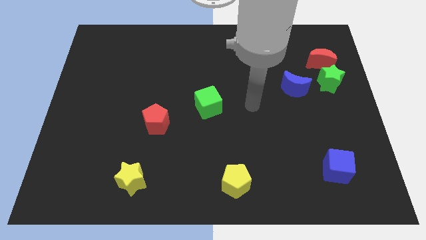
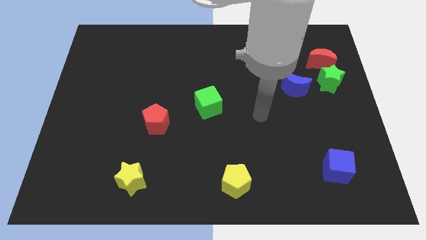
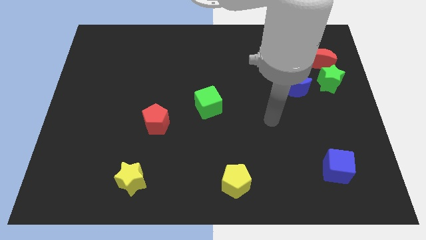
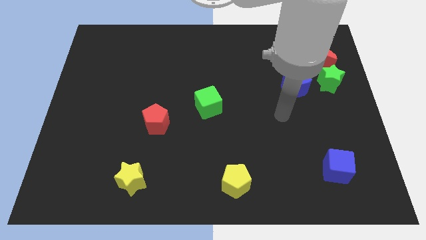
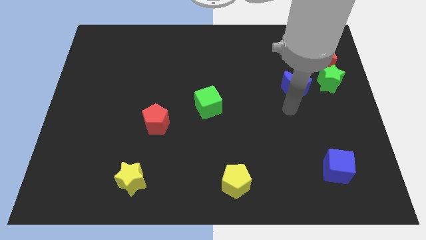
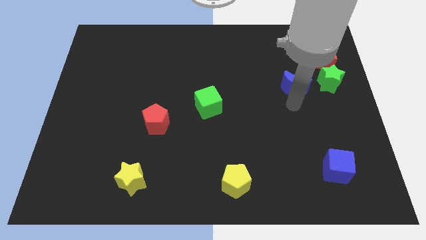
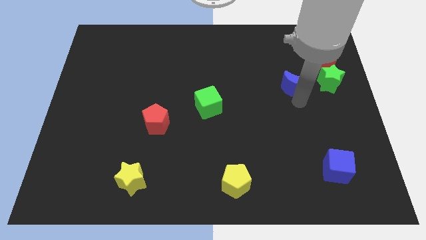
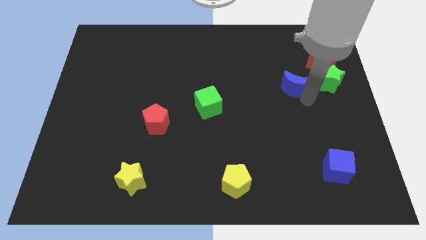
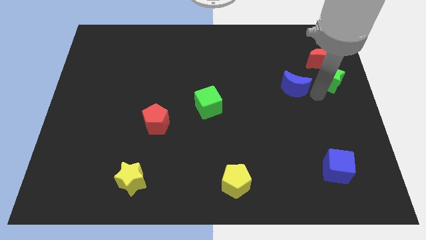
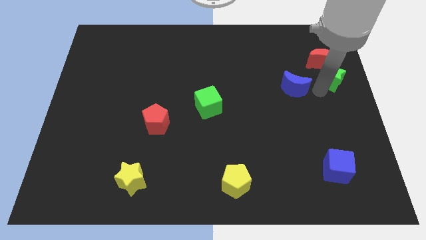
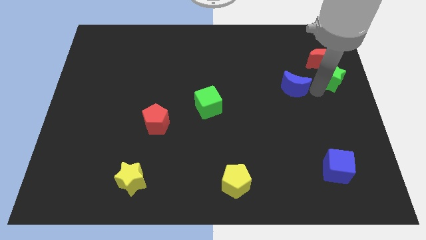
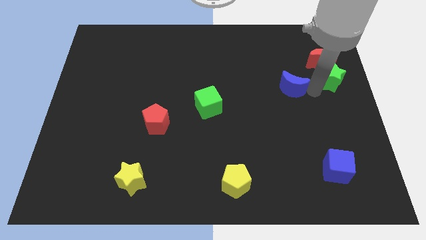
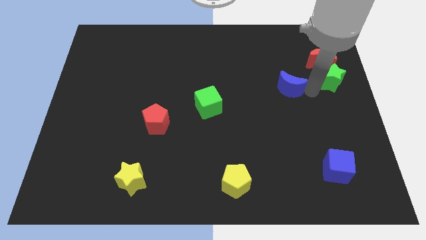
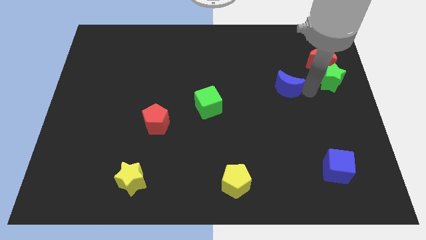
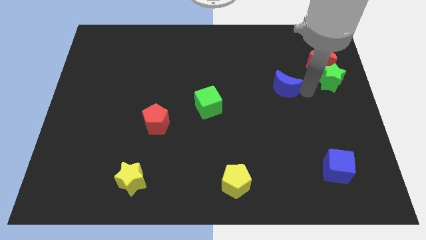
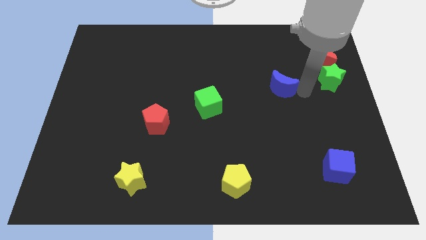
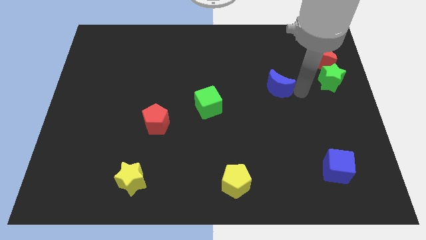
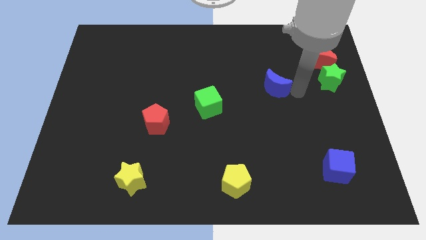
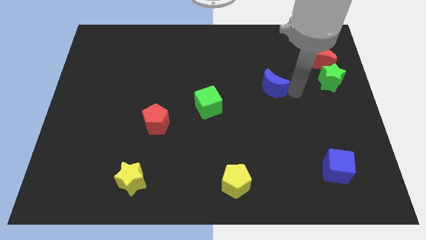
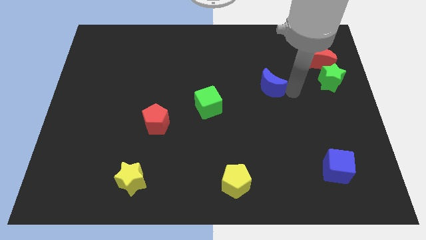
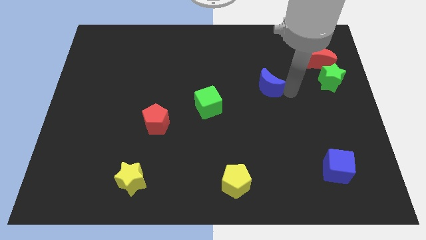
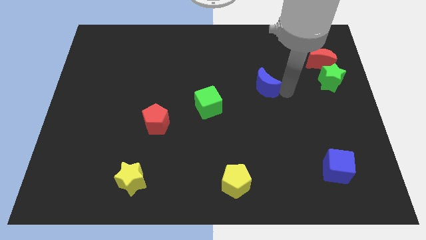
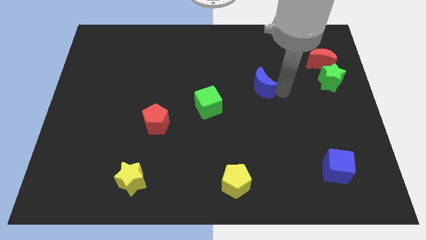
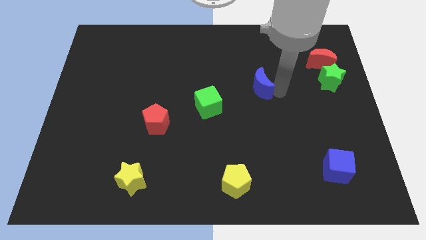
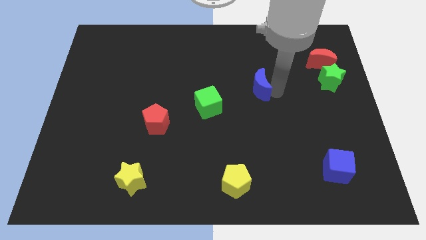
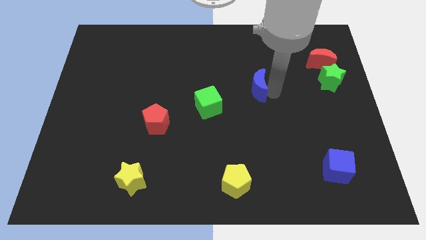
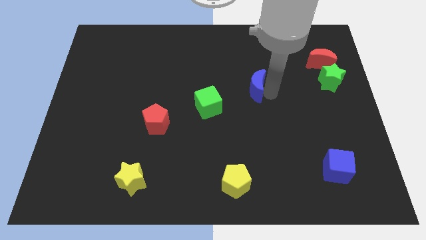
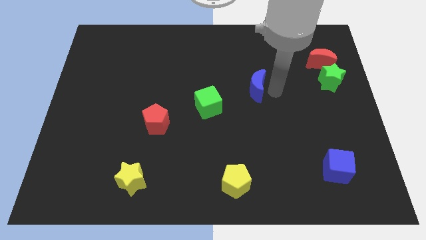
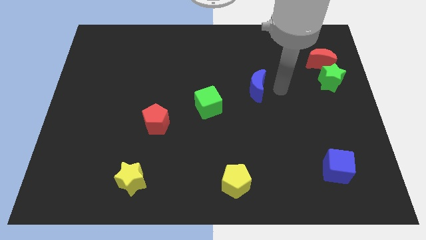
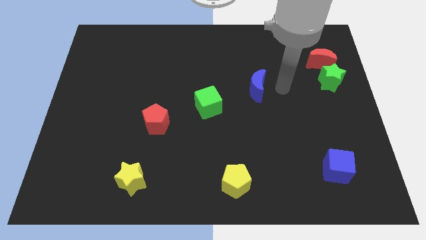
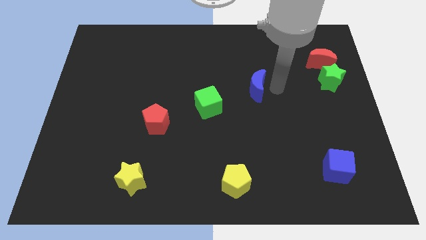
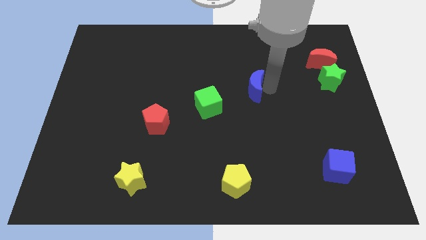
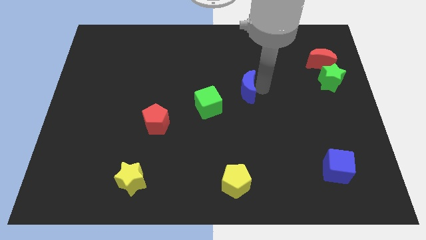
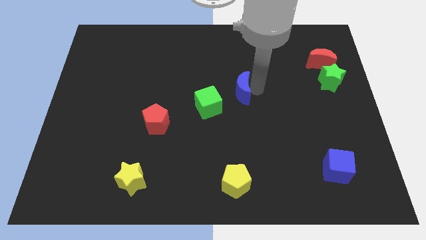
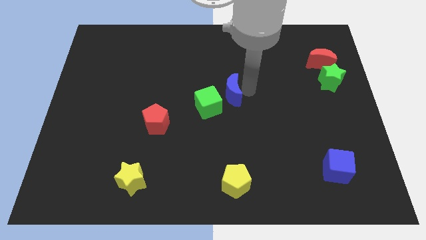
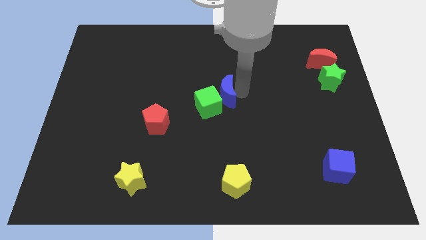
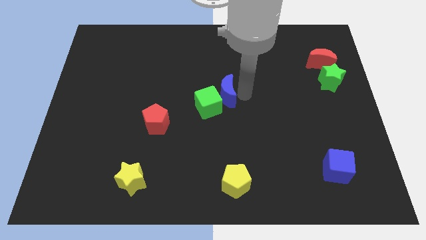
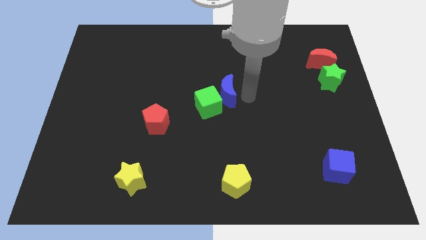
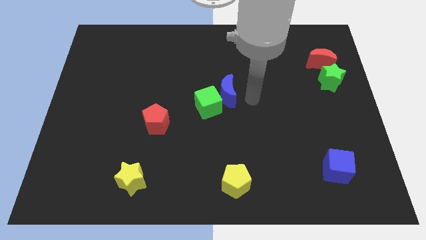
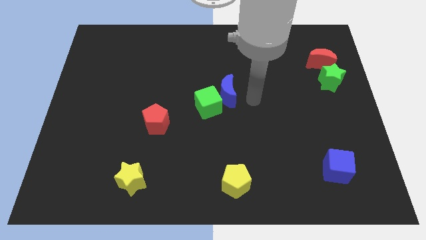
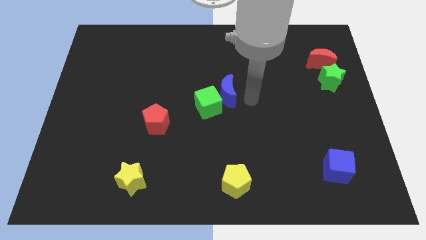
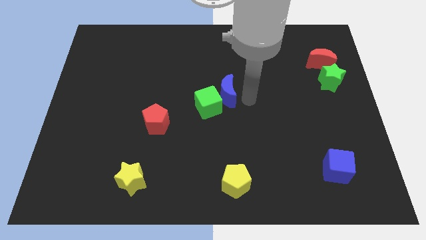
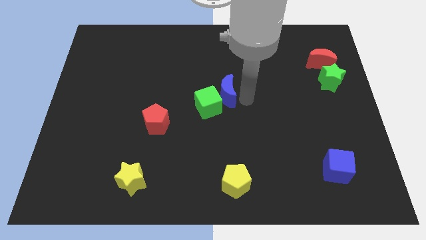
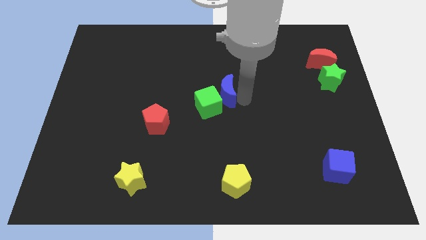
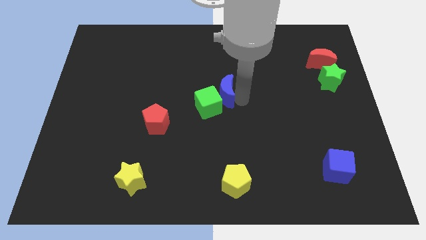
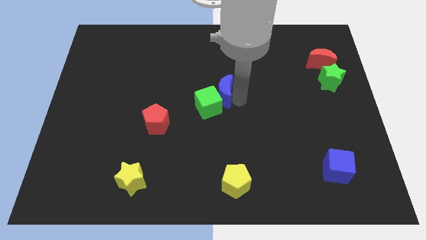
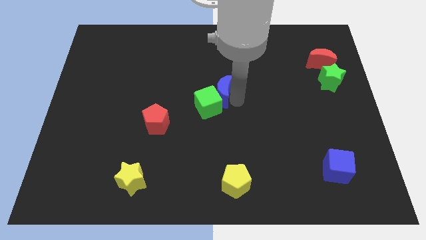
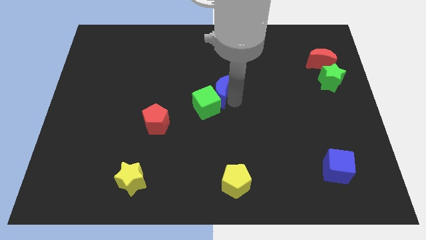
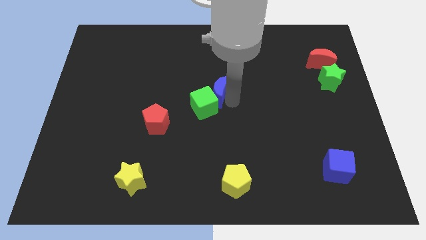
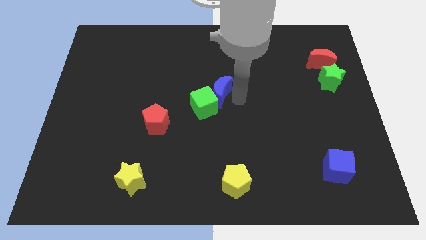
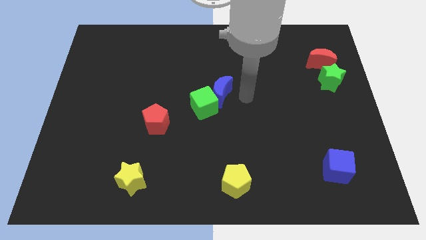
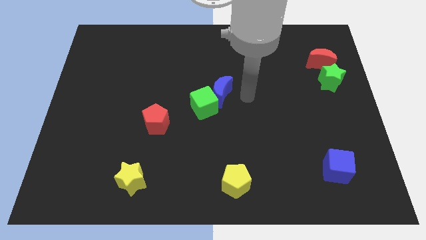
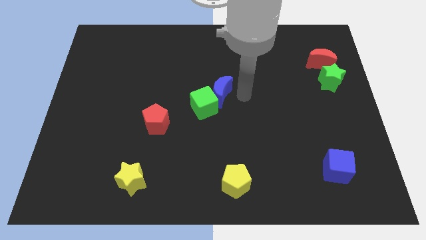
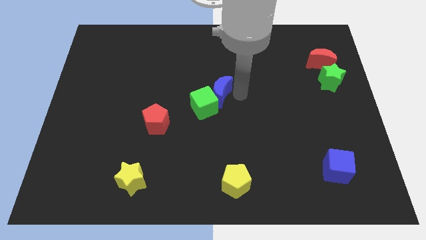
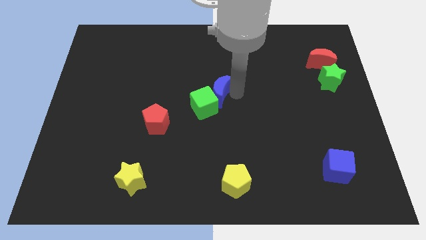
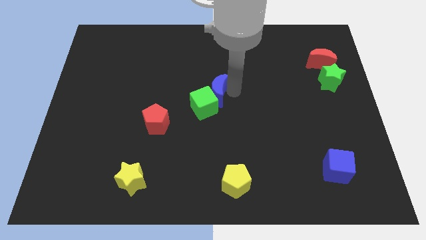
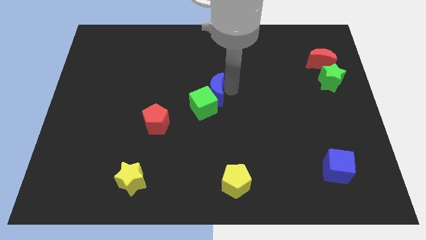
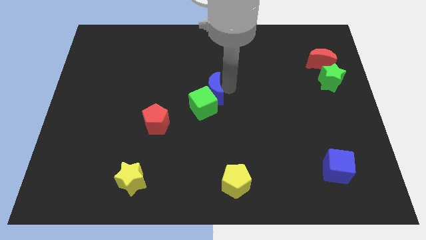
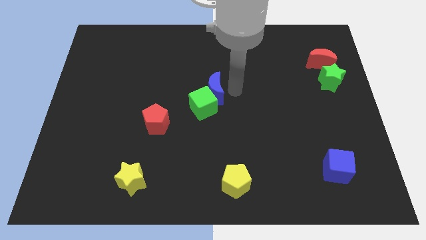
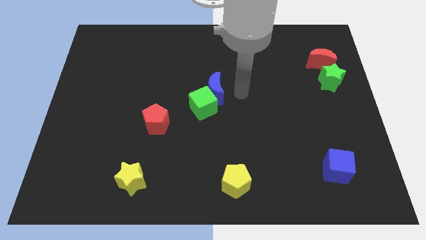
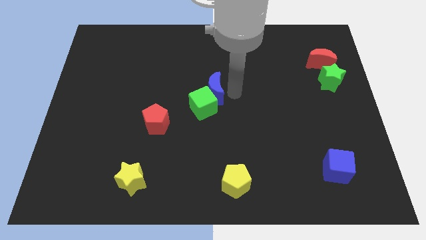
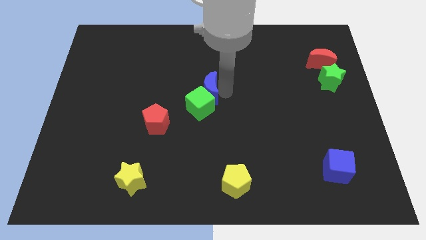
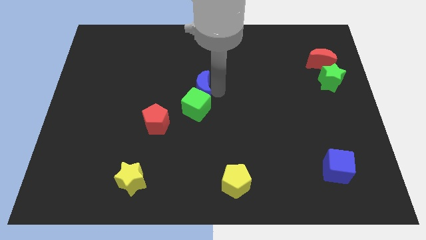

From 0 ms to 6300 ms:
slide the blue moon diagonally up and to the left of the green cube

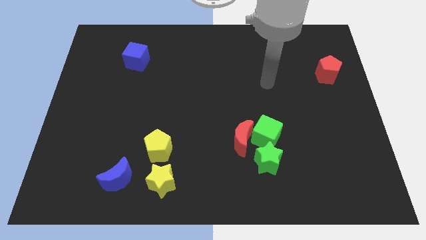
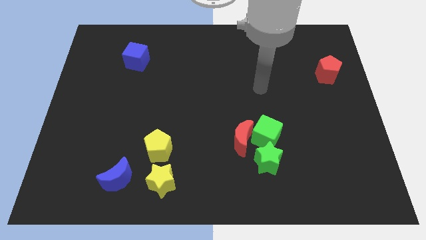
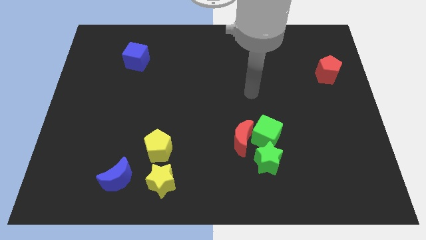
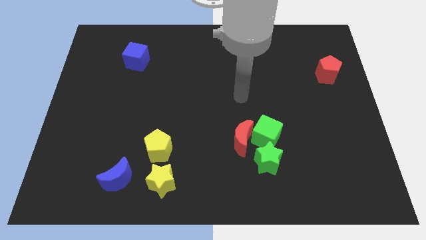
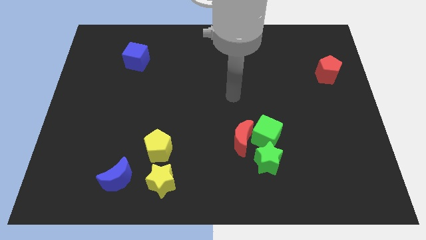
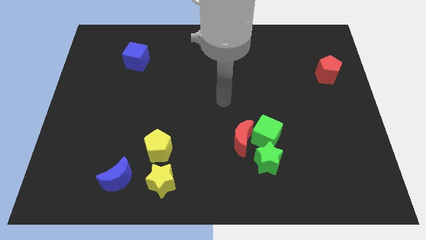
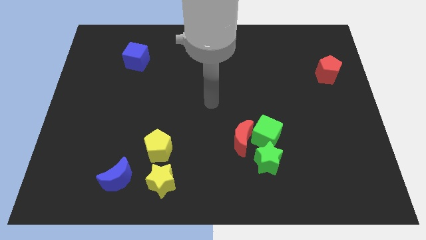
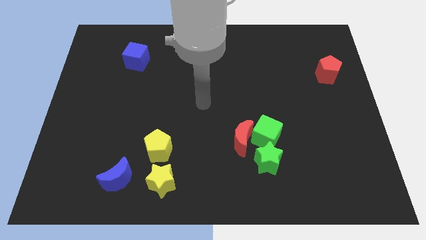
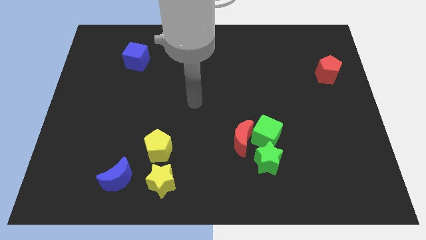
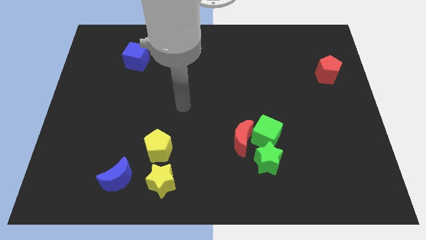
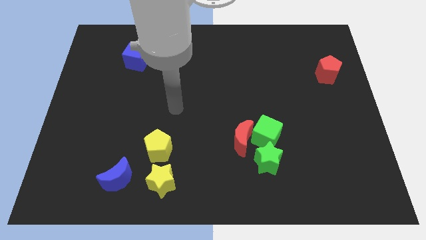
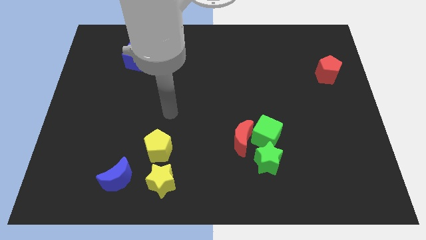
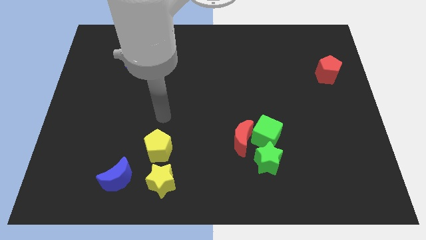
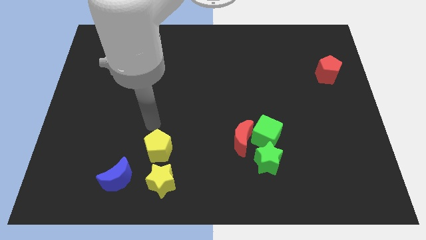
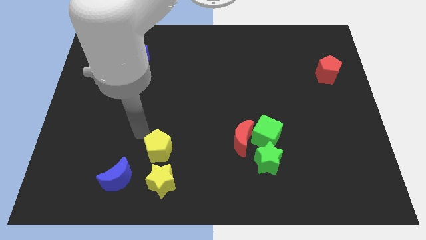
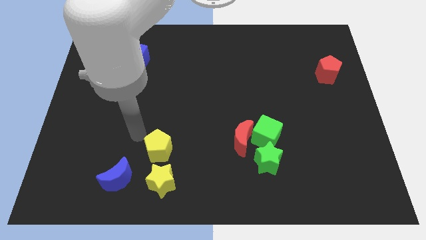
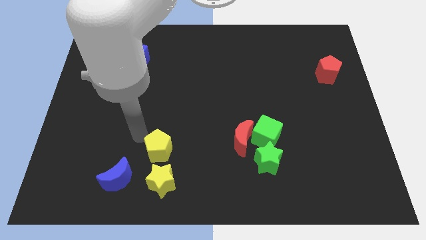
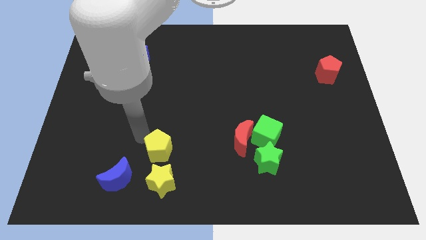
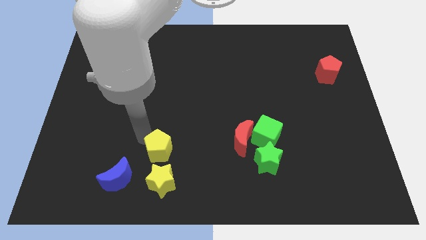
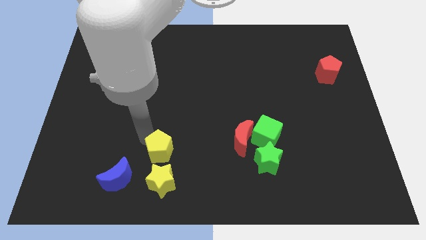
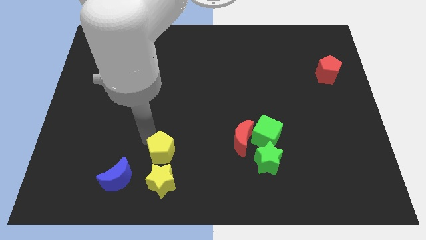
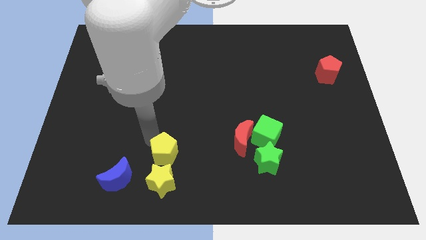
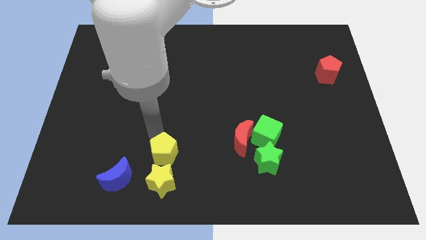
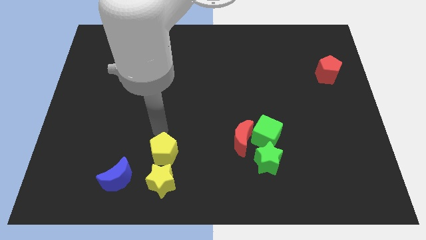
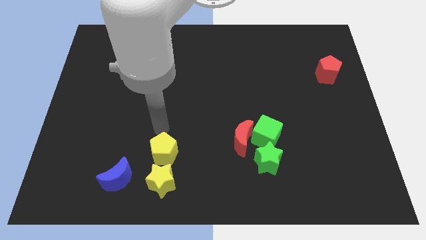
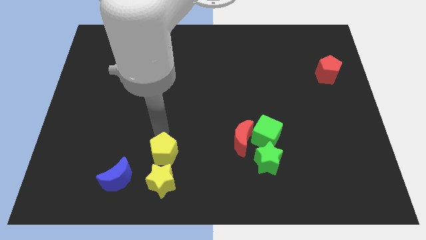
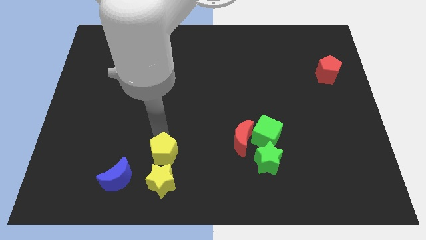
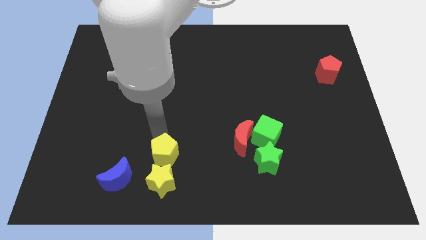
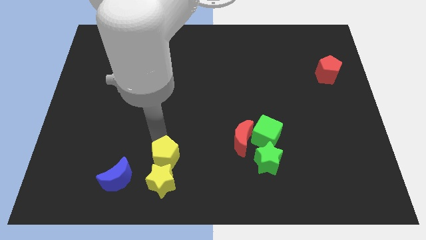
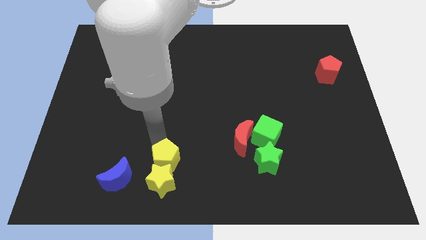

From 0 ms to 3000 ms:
put the yellow pentagon just right of the blue moon
